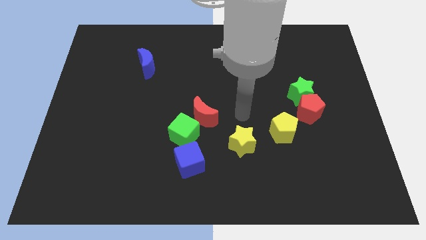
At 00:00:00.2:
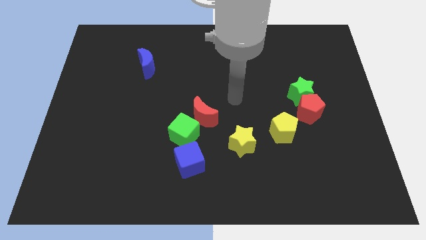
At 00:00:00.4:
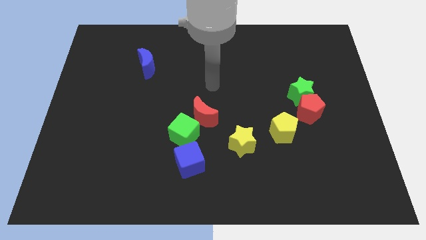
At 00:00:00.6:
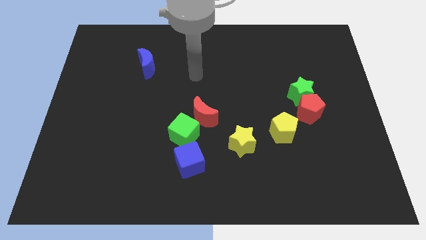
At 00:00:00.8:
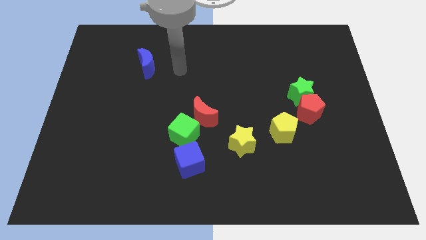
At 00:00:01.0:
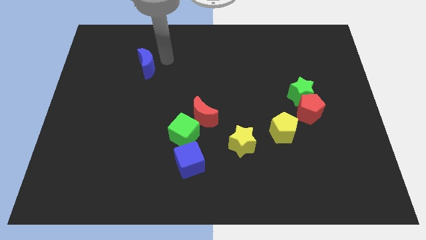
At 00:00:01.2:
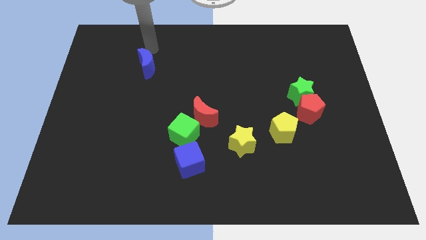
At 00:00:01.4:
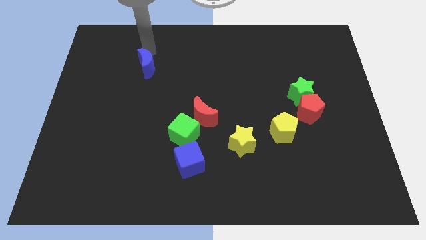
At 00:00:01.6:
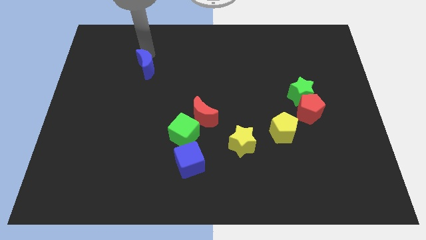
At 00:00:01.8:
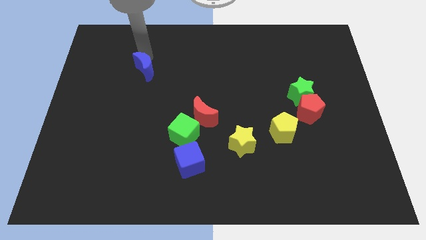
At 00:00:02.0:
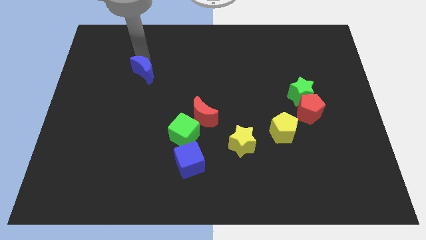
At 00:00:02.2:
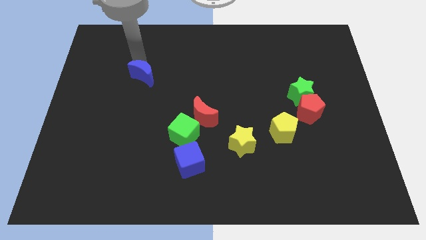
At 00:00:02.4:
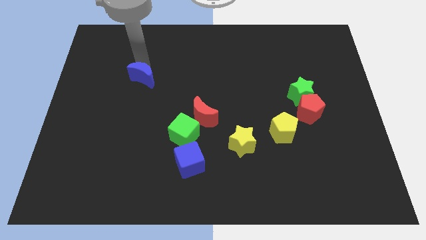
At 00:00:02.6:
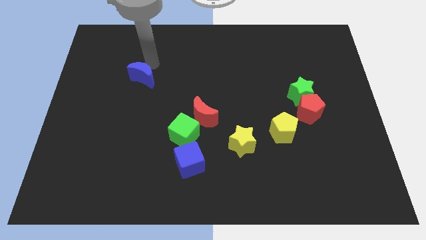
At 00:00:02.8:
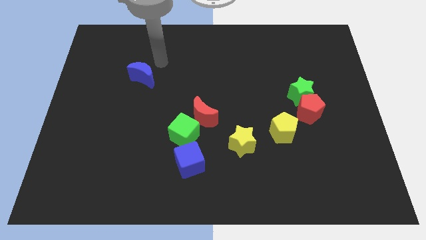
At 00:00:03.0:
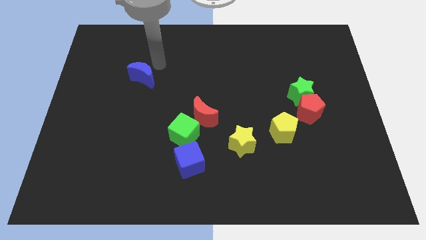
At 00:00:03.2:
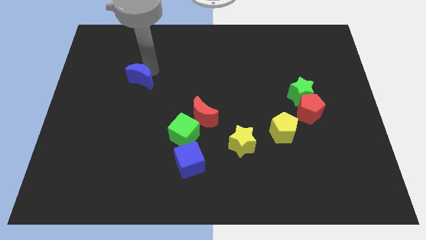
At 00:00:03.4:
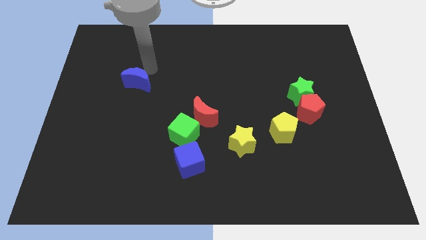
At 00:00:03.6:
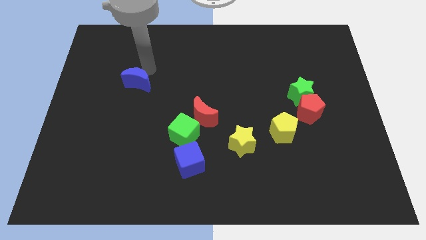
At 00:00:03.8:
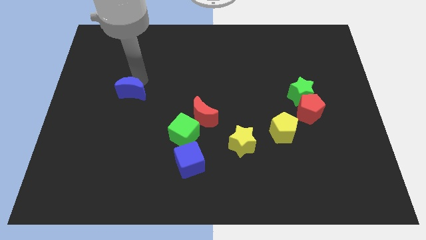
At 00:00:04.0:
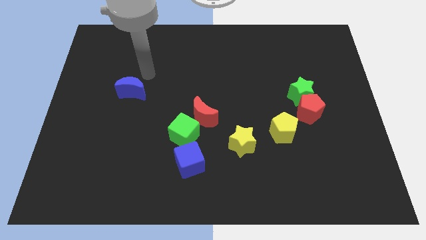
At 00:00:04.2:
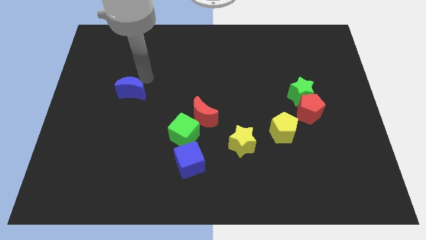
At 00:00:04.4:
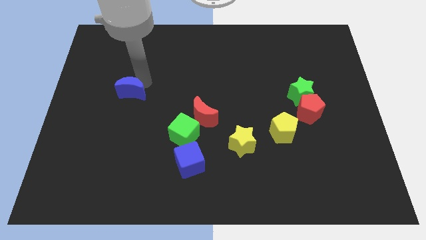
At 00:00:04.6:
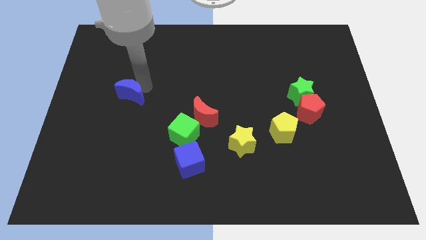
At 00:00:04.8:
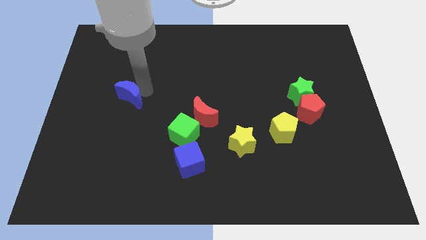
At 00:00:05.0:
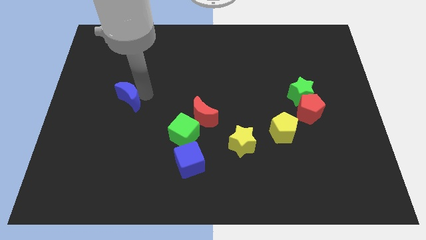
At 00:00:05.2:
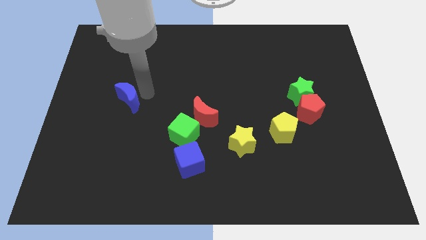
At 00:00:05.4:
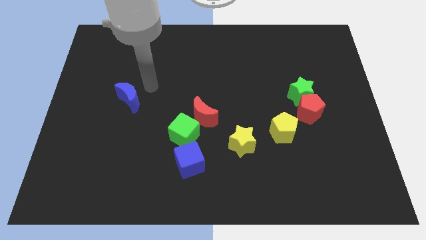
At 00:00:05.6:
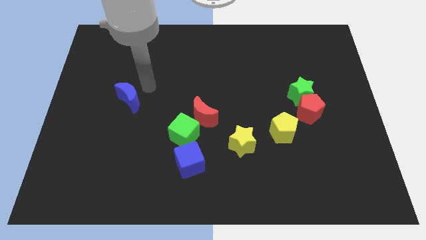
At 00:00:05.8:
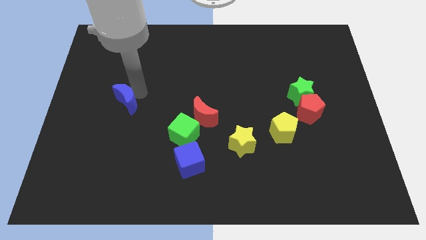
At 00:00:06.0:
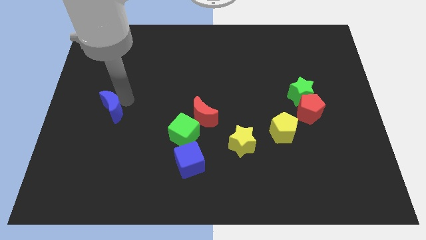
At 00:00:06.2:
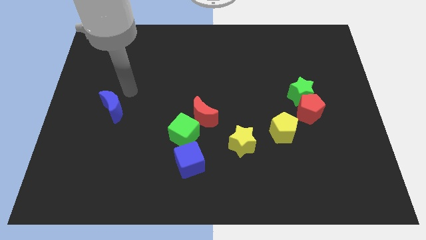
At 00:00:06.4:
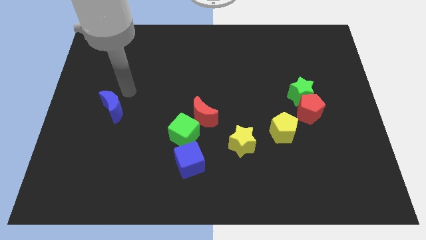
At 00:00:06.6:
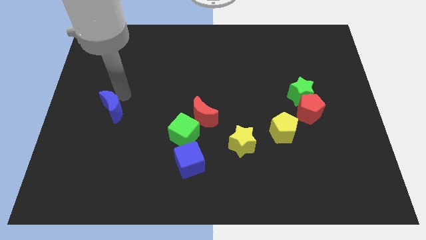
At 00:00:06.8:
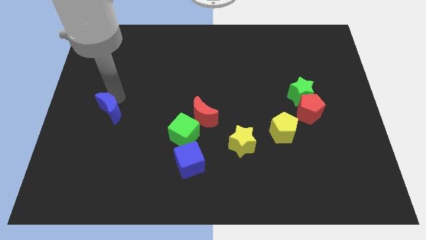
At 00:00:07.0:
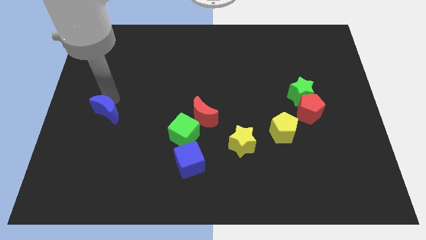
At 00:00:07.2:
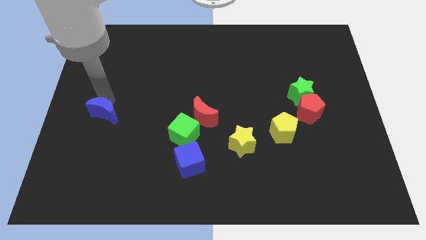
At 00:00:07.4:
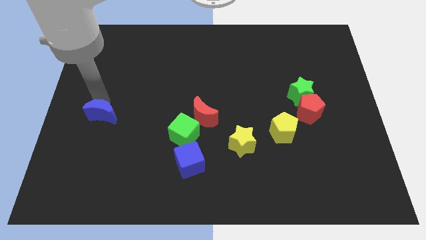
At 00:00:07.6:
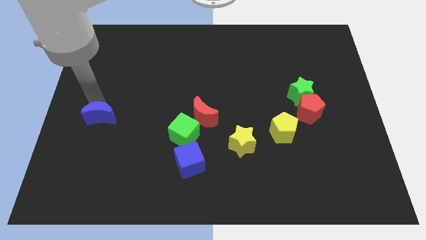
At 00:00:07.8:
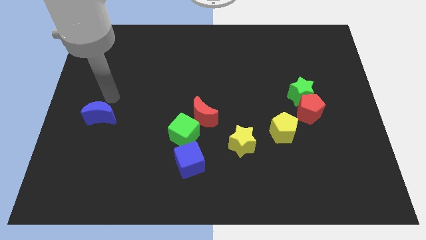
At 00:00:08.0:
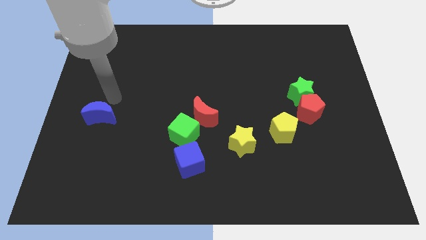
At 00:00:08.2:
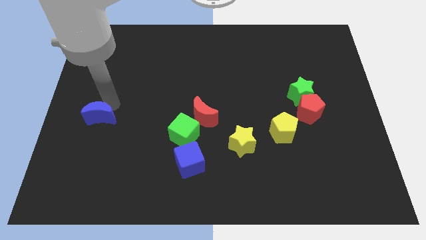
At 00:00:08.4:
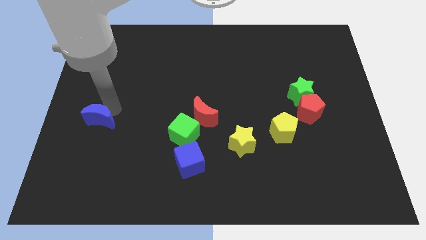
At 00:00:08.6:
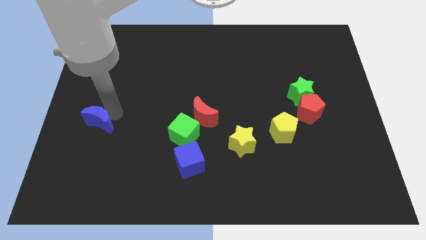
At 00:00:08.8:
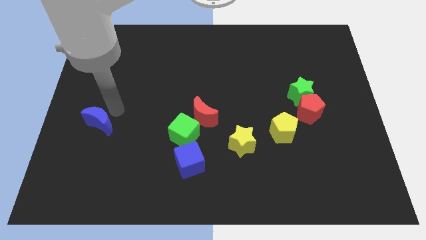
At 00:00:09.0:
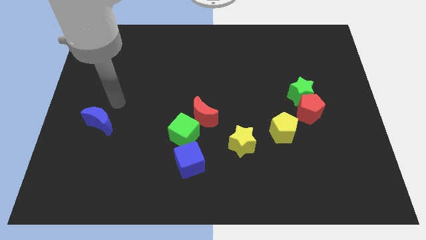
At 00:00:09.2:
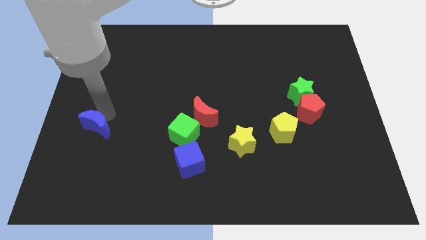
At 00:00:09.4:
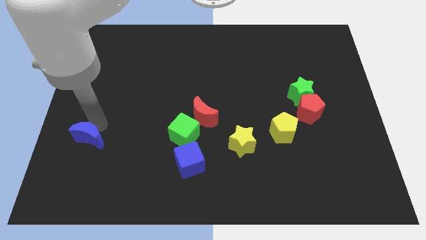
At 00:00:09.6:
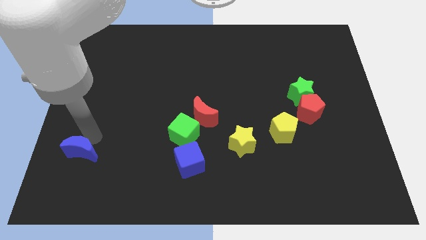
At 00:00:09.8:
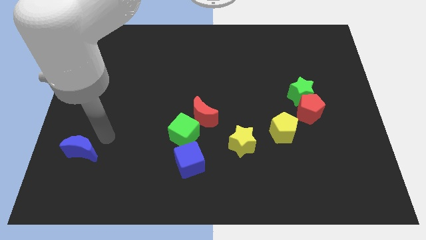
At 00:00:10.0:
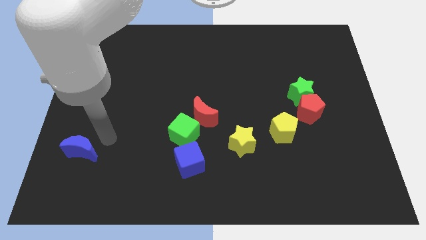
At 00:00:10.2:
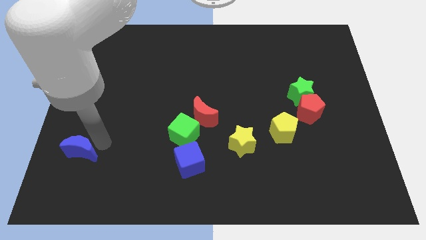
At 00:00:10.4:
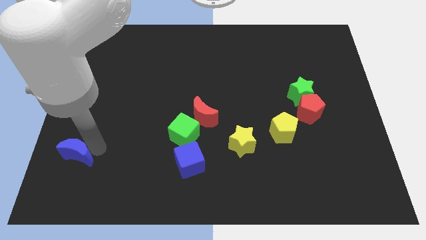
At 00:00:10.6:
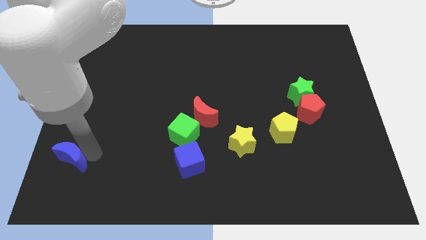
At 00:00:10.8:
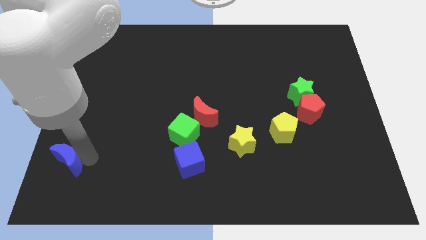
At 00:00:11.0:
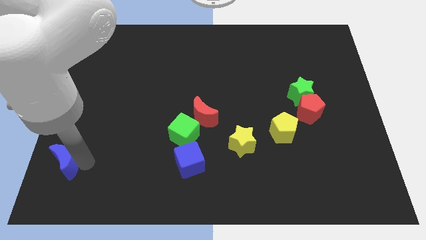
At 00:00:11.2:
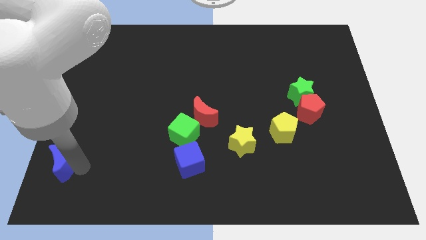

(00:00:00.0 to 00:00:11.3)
move the blue moon to the bottom left of the board
